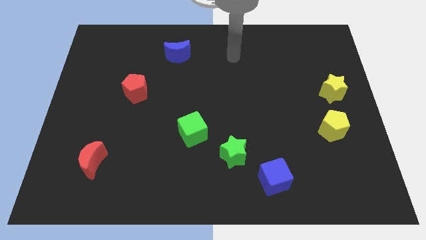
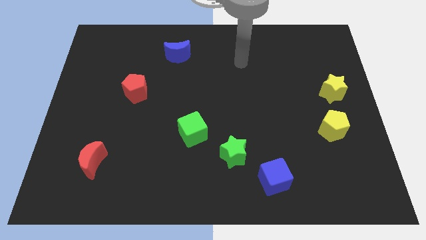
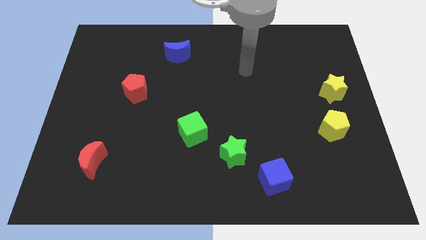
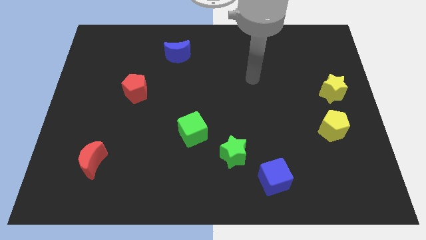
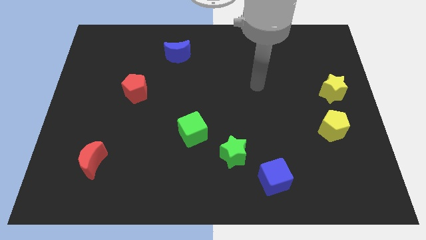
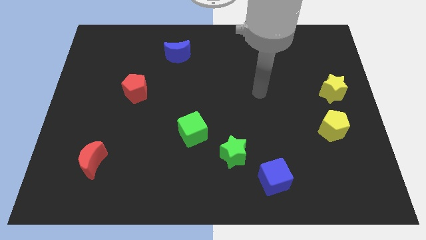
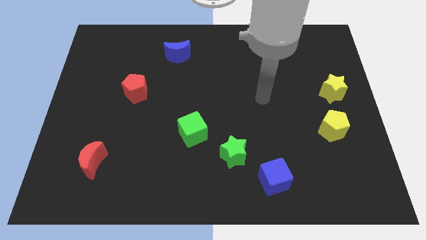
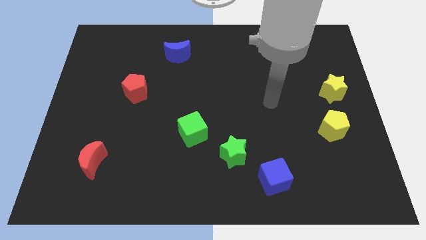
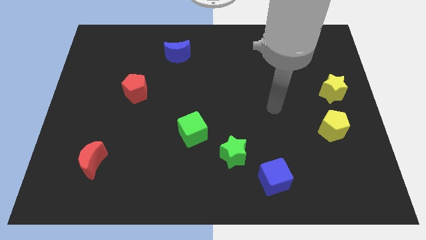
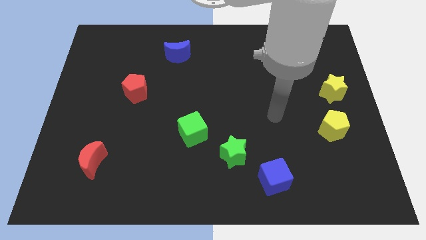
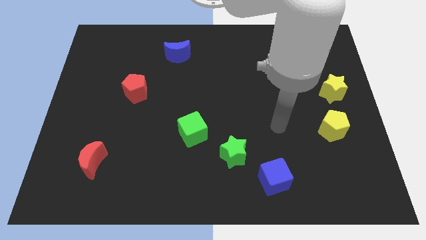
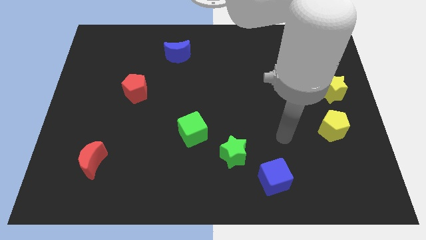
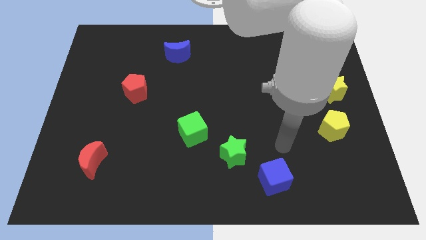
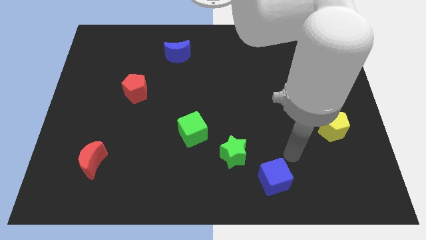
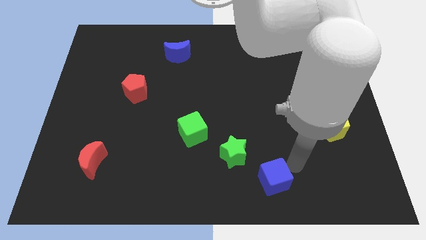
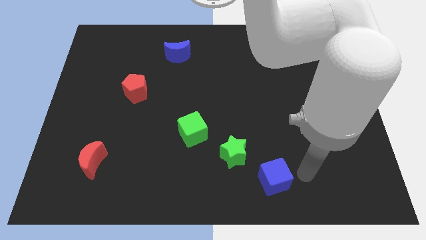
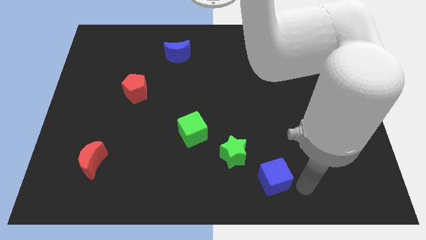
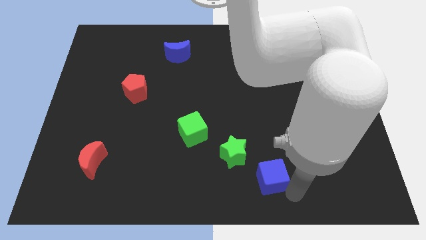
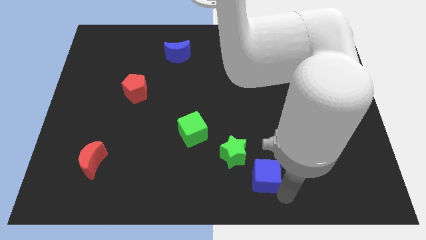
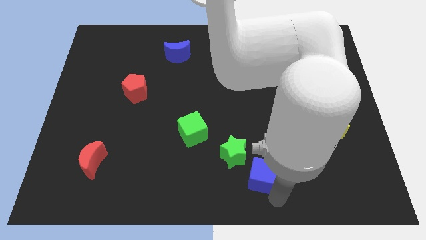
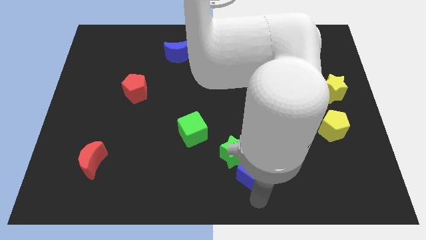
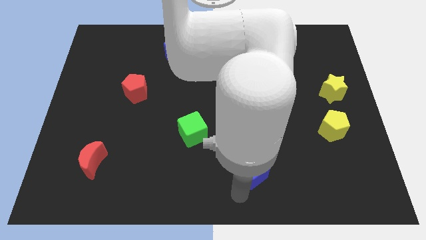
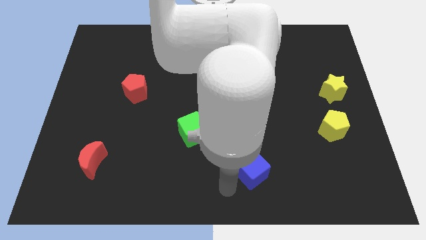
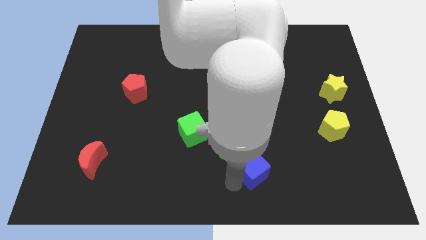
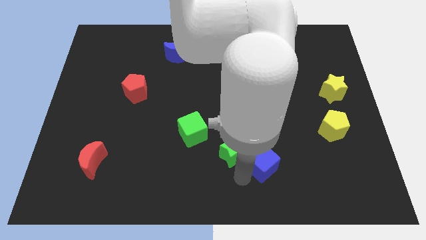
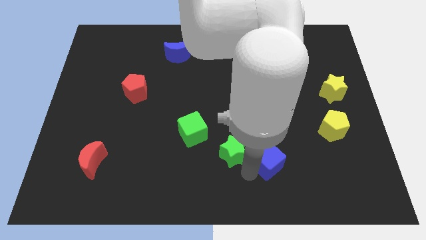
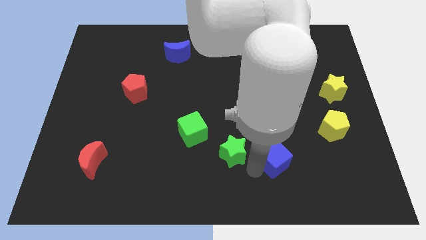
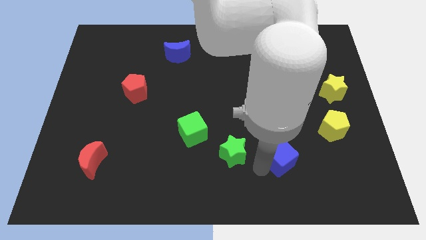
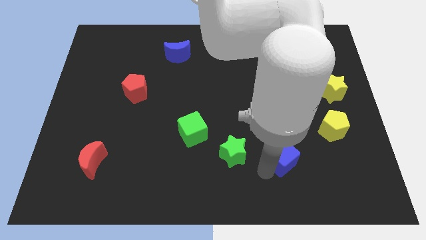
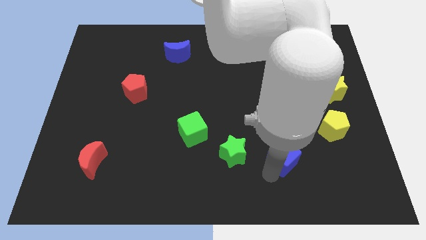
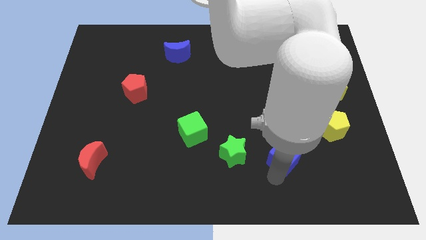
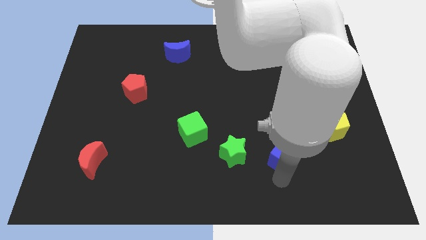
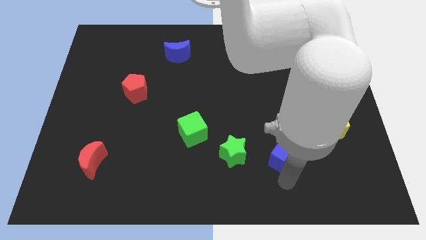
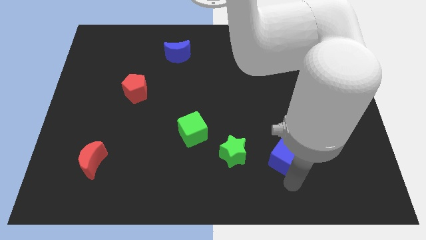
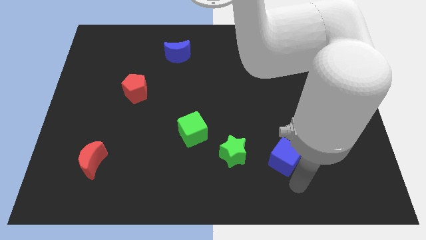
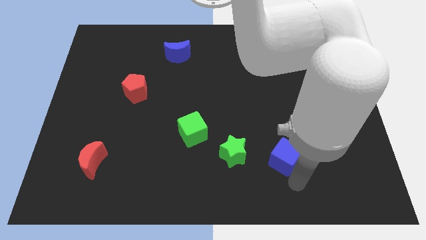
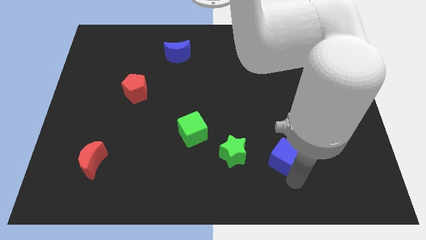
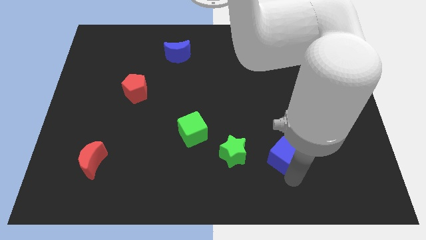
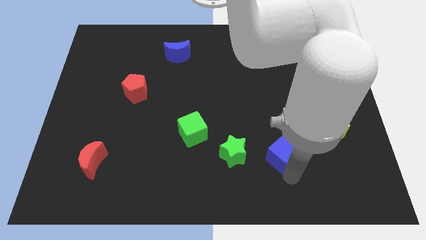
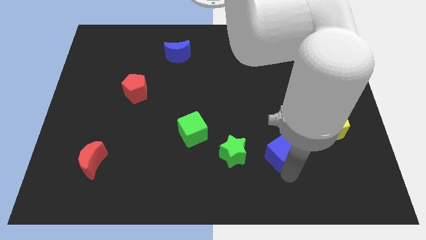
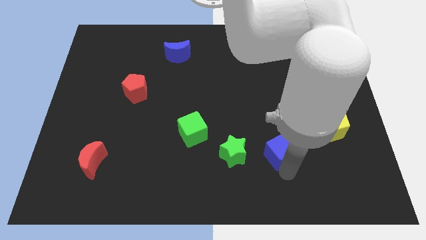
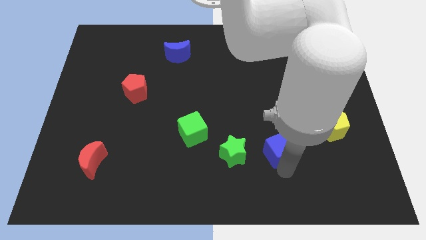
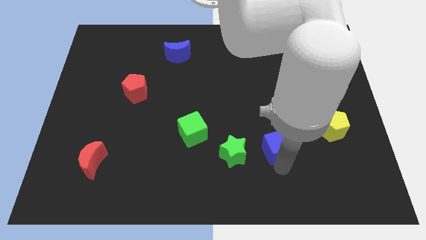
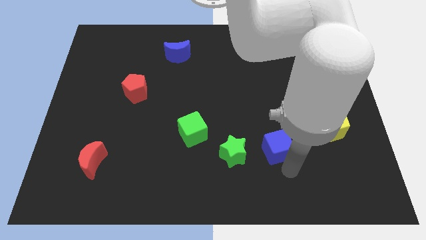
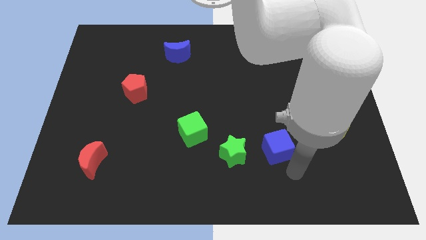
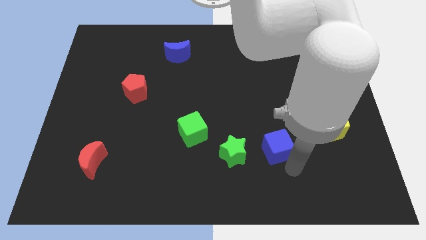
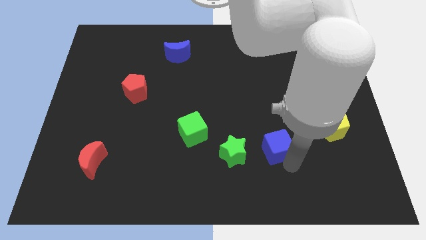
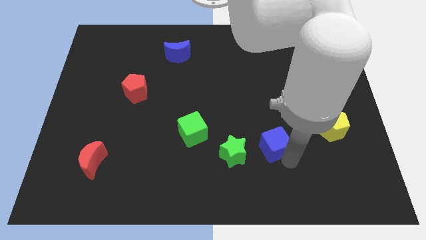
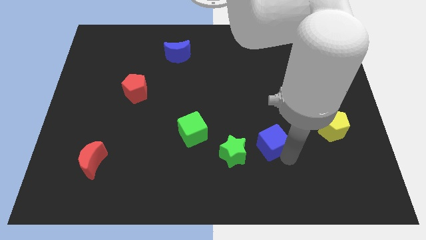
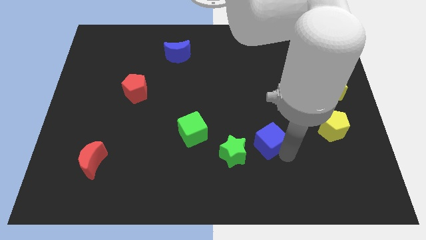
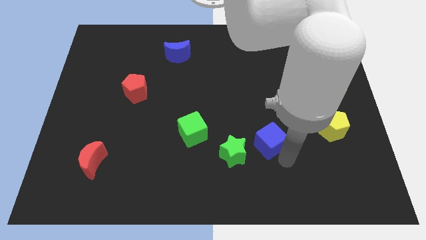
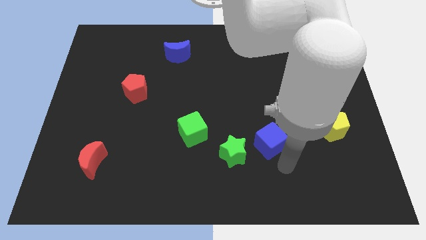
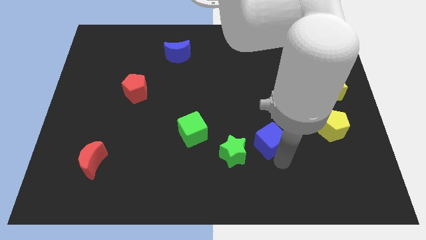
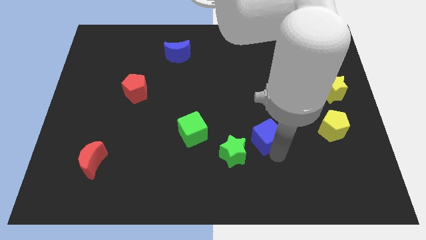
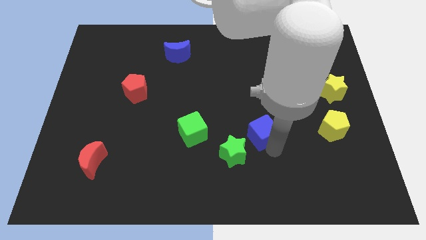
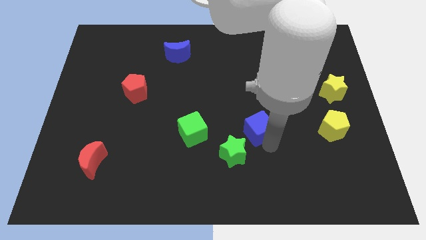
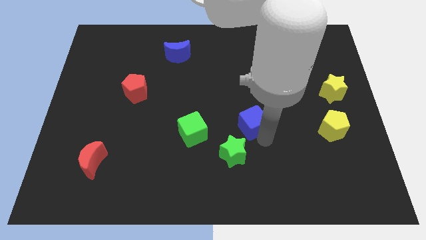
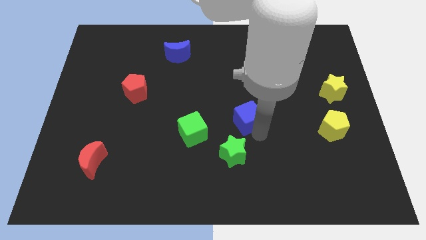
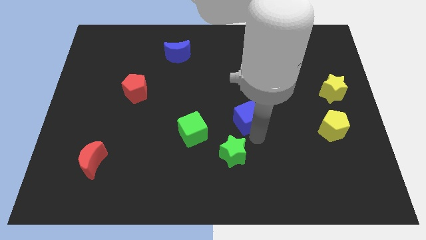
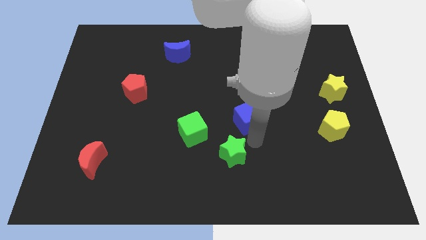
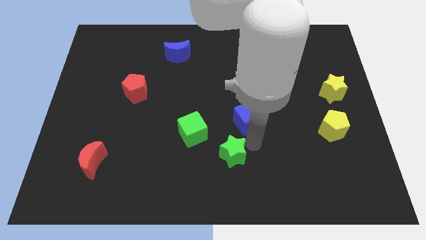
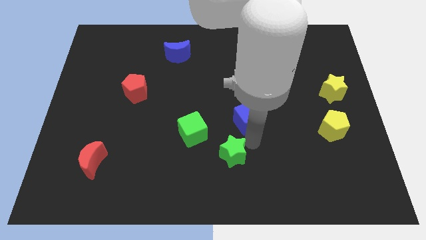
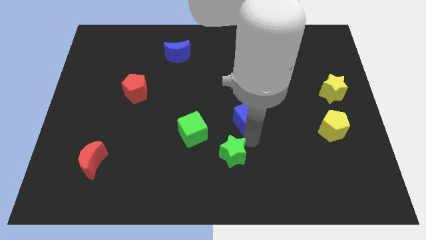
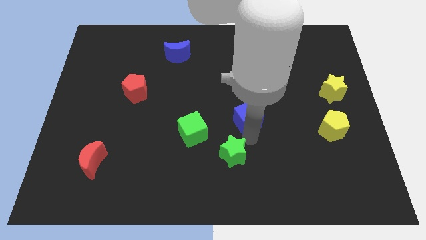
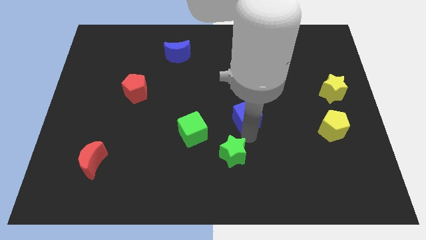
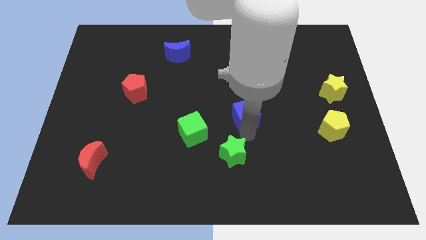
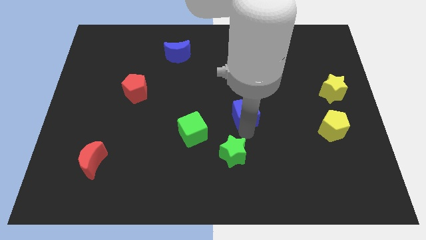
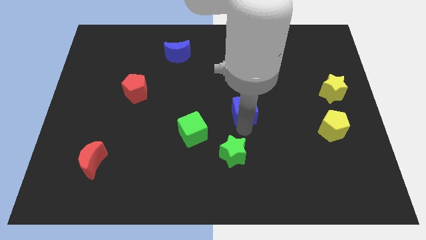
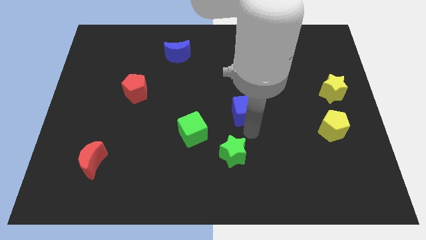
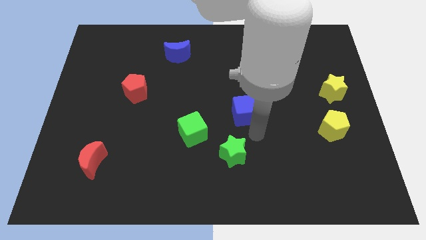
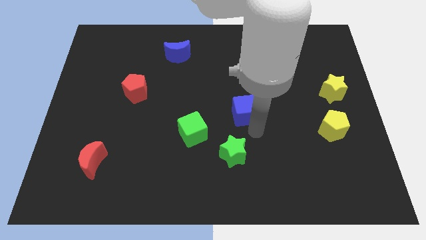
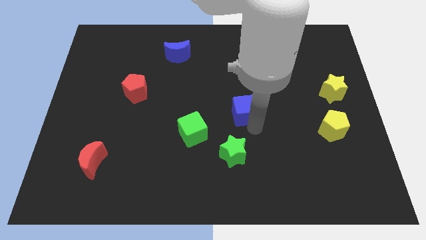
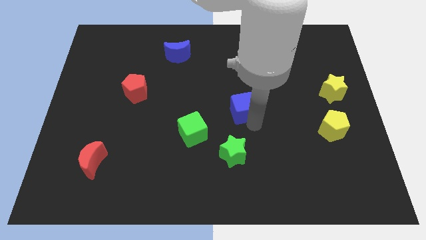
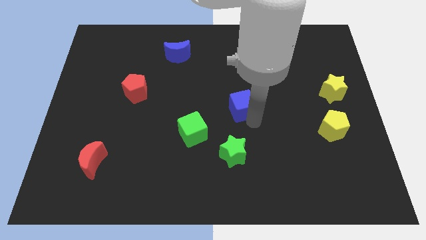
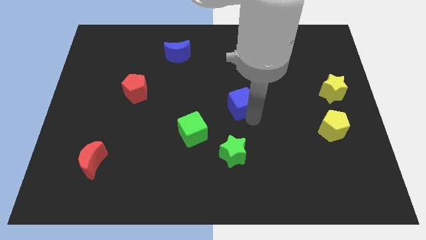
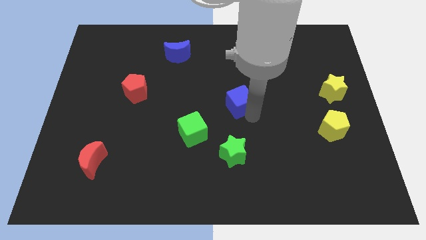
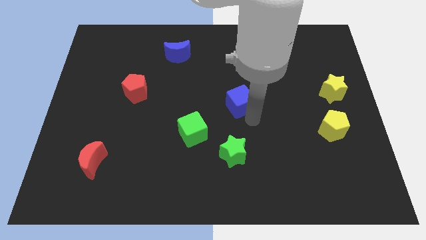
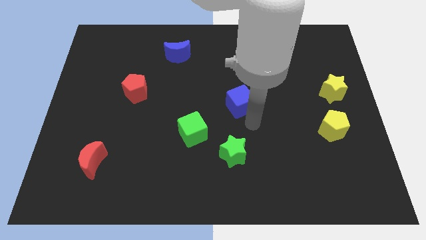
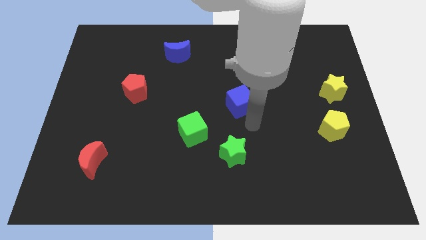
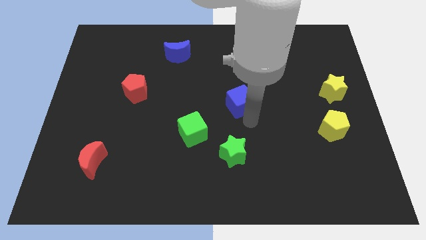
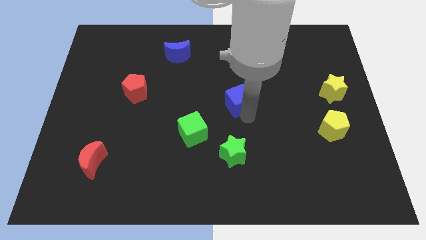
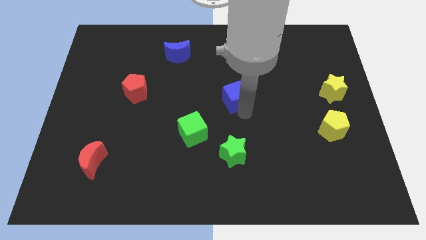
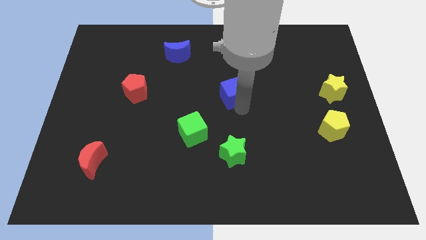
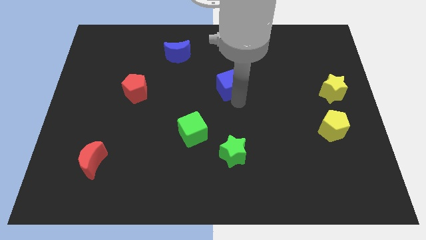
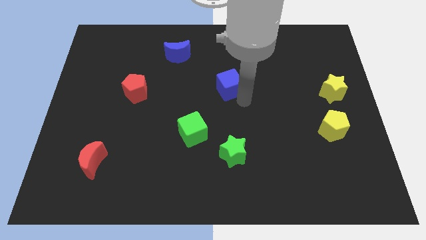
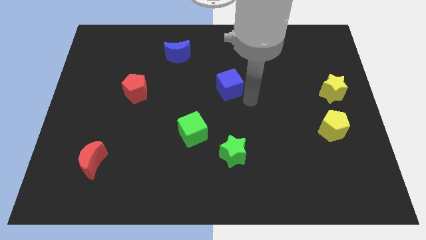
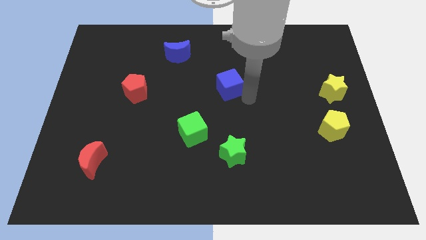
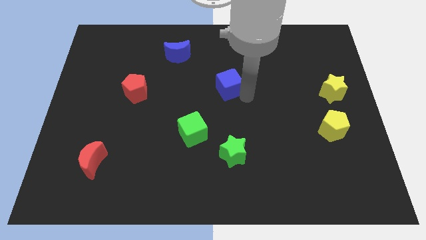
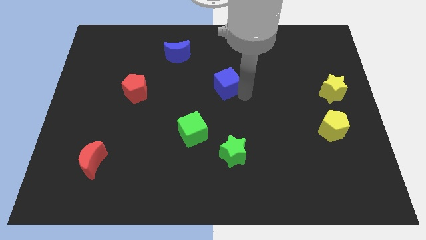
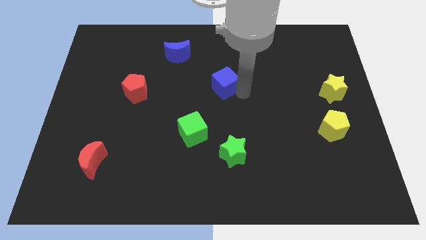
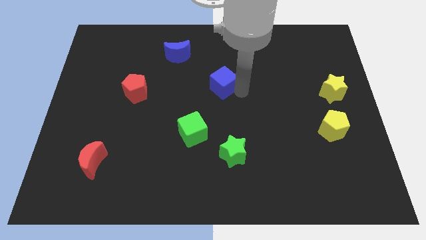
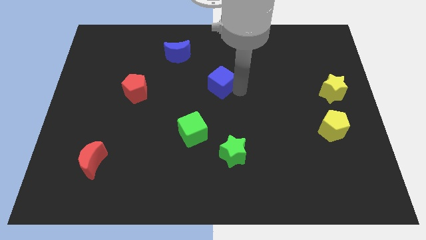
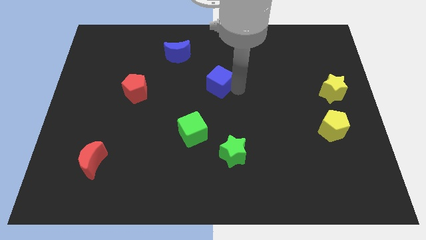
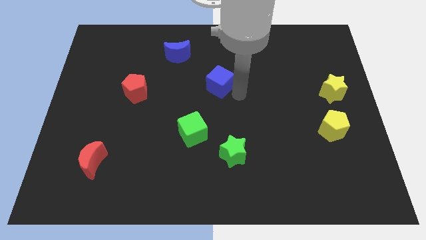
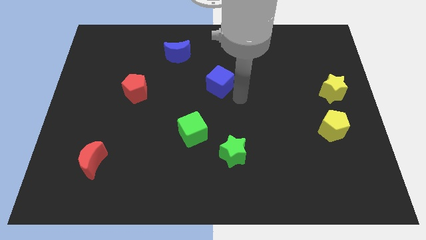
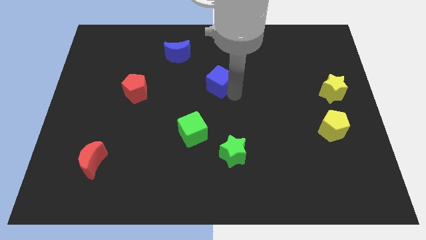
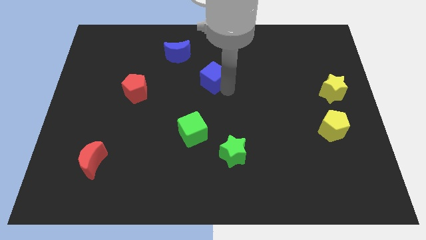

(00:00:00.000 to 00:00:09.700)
move the blue cube diagonally down and to the right of the blue moon
